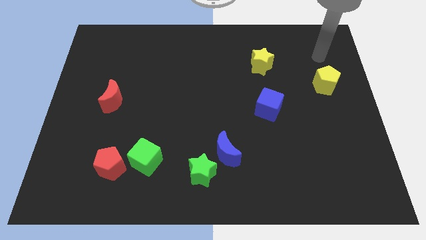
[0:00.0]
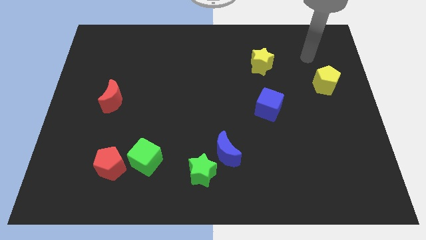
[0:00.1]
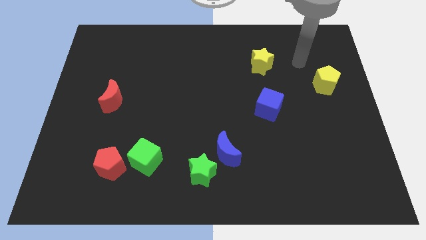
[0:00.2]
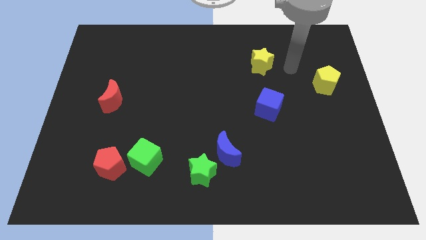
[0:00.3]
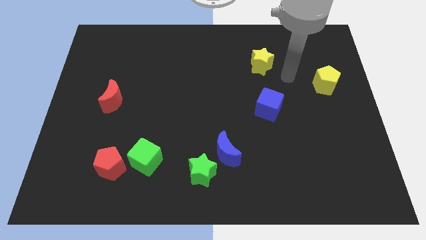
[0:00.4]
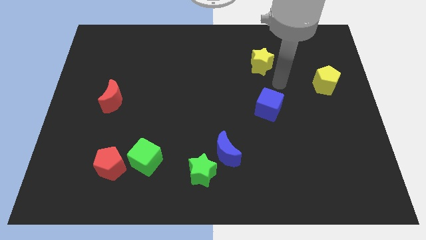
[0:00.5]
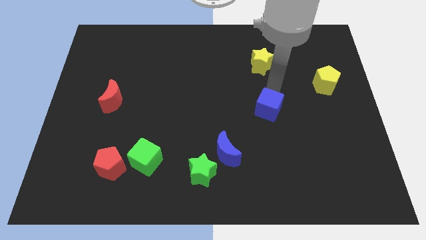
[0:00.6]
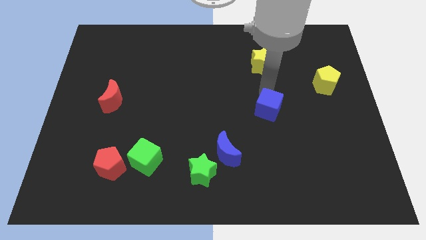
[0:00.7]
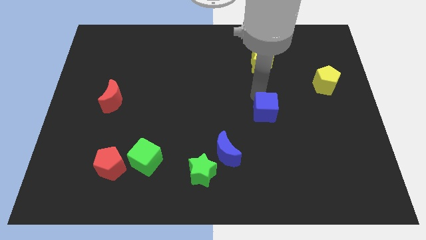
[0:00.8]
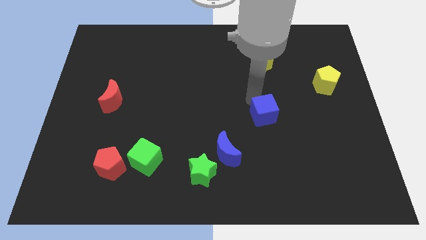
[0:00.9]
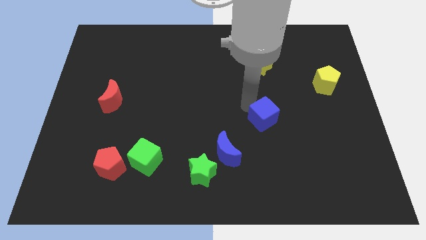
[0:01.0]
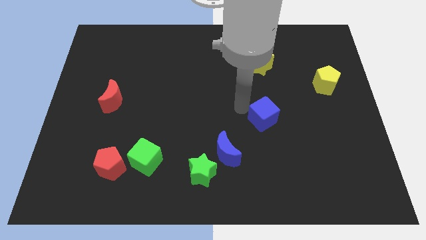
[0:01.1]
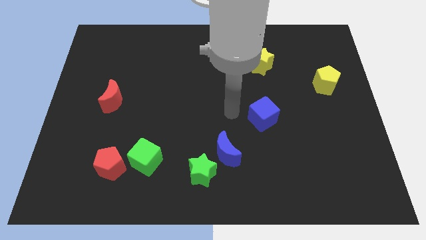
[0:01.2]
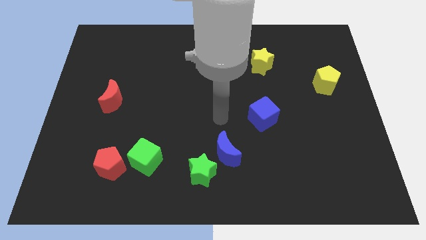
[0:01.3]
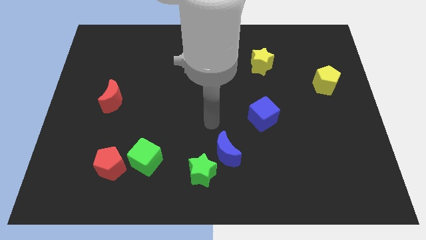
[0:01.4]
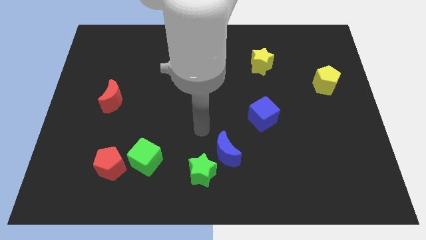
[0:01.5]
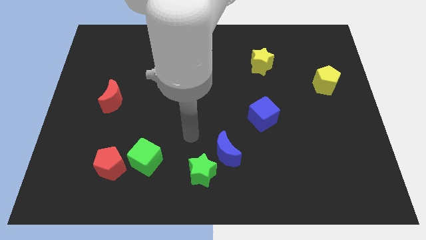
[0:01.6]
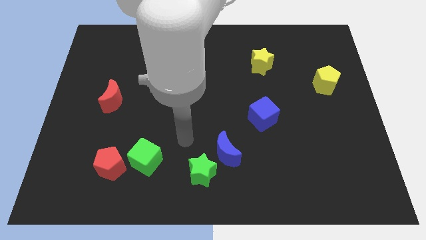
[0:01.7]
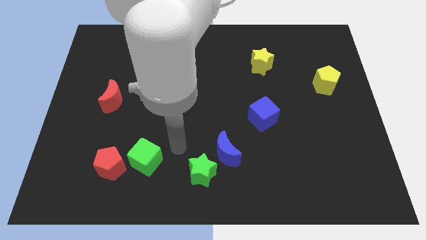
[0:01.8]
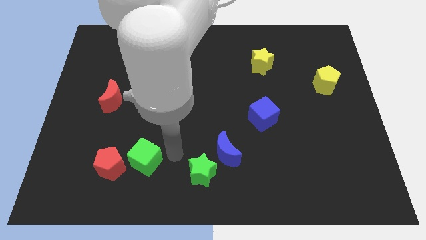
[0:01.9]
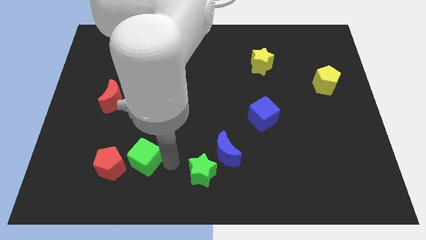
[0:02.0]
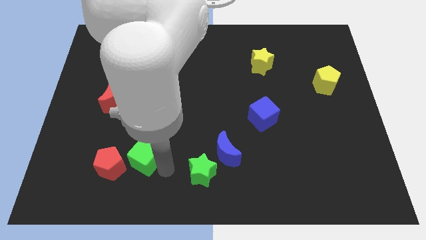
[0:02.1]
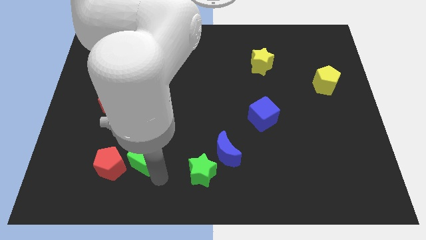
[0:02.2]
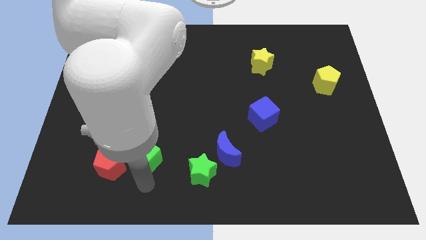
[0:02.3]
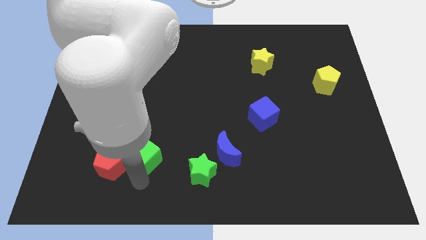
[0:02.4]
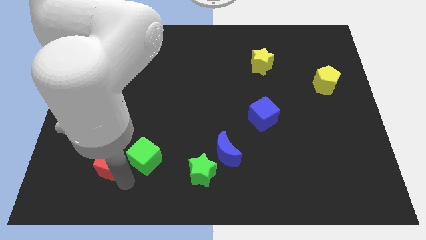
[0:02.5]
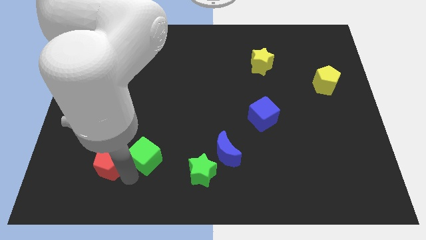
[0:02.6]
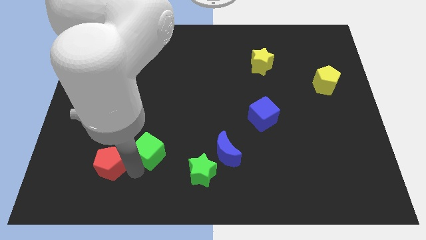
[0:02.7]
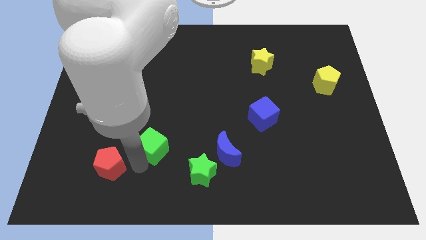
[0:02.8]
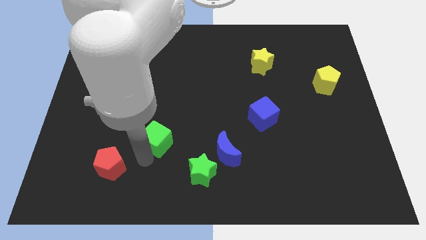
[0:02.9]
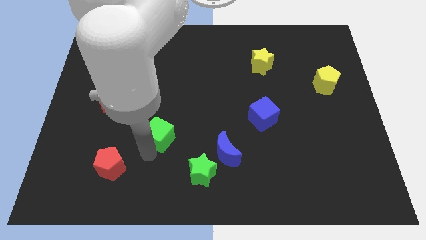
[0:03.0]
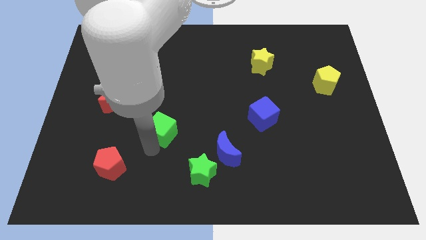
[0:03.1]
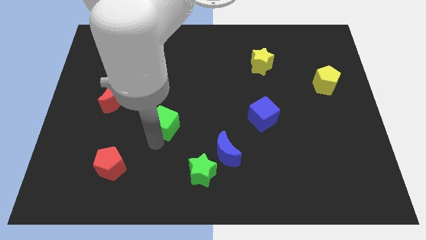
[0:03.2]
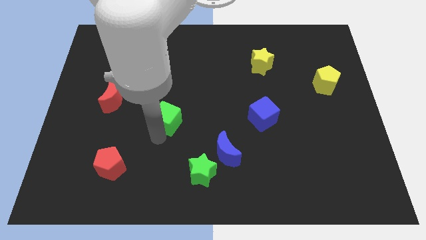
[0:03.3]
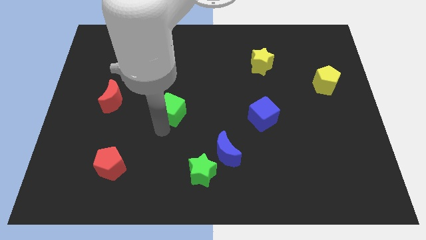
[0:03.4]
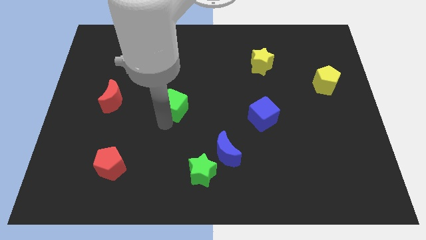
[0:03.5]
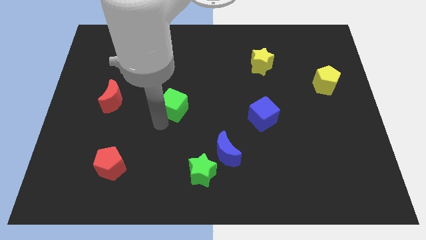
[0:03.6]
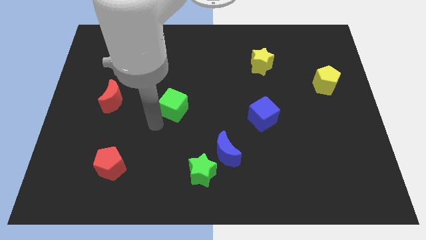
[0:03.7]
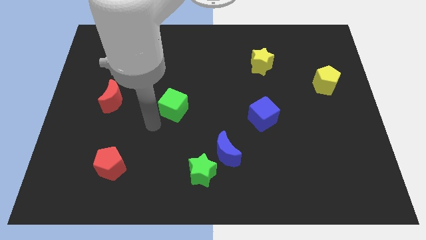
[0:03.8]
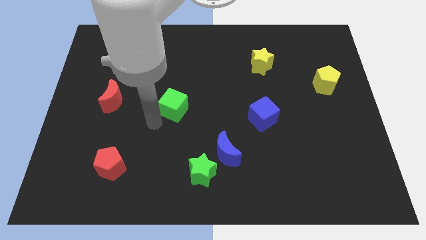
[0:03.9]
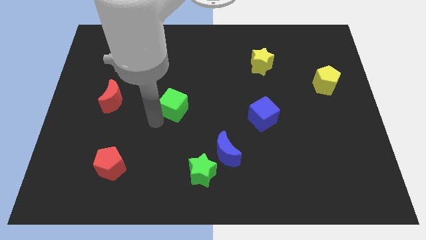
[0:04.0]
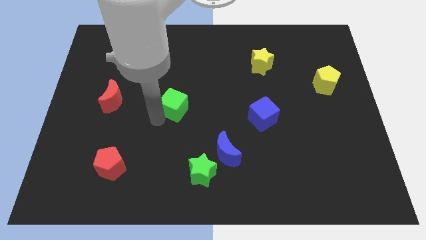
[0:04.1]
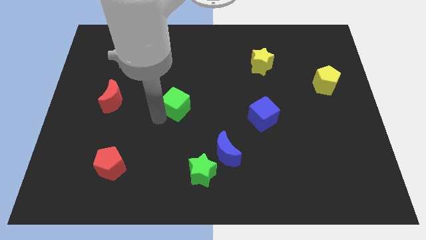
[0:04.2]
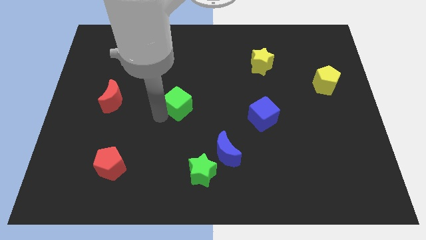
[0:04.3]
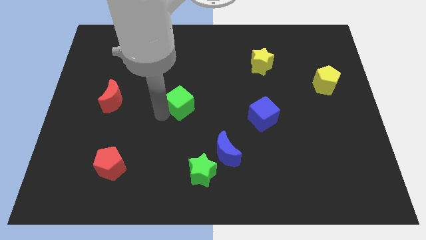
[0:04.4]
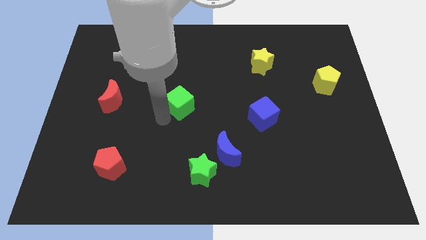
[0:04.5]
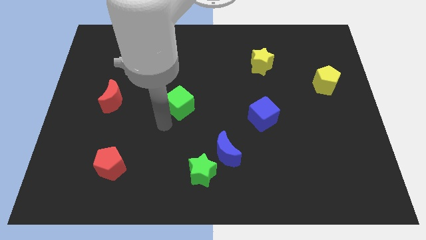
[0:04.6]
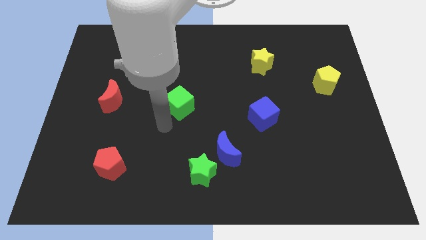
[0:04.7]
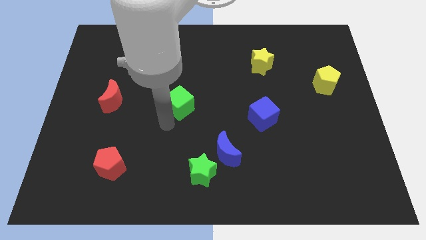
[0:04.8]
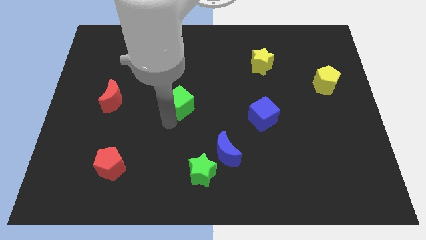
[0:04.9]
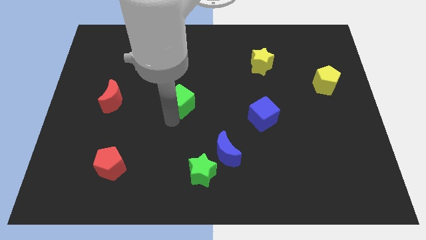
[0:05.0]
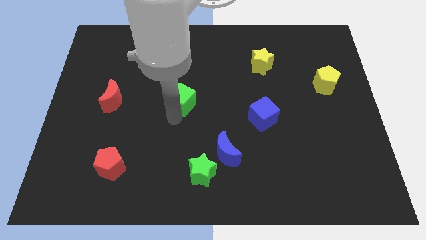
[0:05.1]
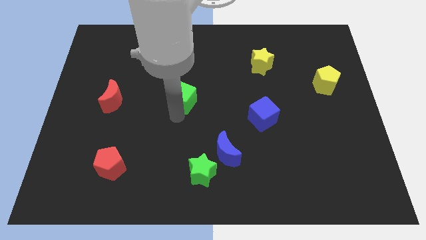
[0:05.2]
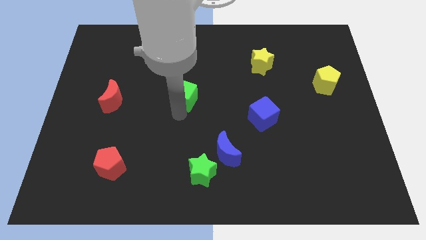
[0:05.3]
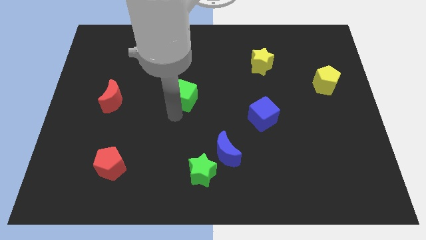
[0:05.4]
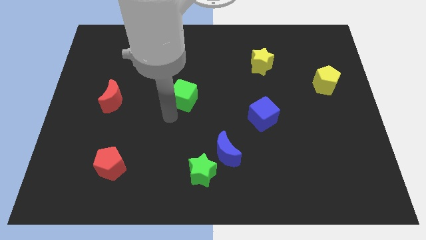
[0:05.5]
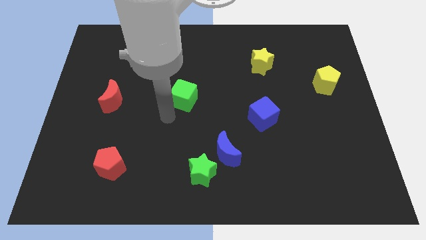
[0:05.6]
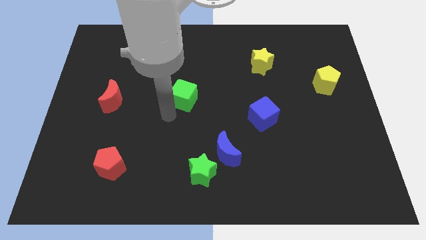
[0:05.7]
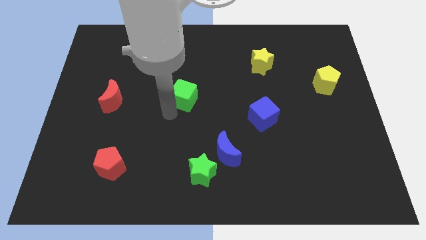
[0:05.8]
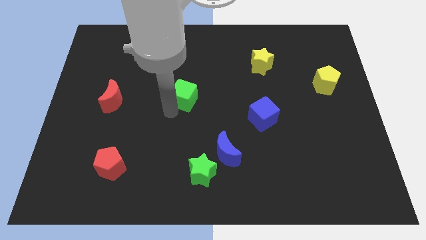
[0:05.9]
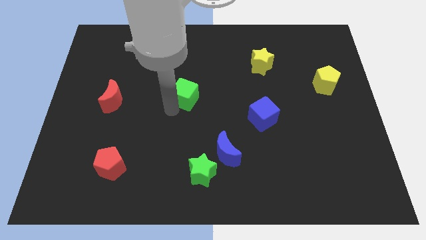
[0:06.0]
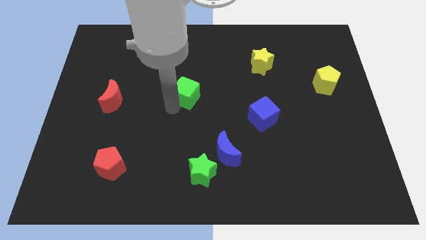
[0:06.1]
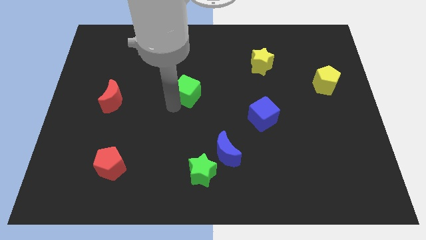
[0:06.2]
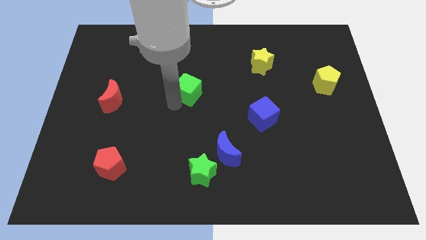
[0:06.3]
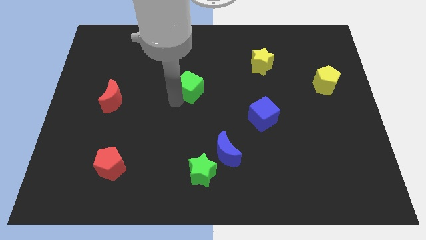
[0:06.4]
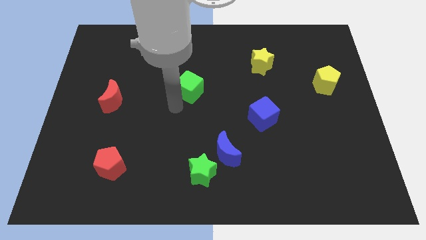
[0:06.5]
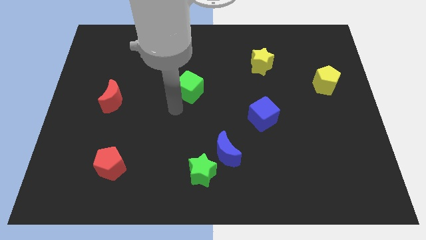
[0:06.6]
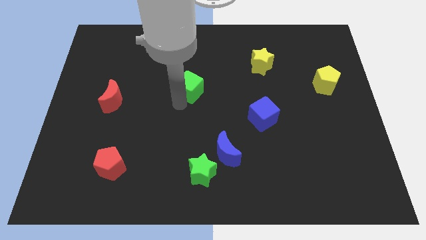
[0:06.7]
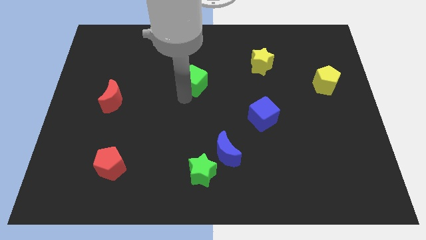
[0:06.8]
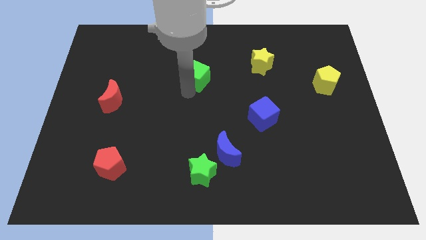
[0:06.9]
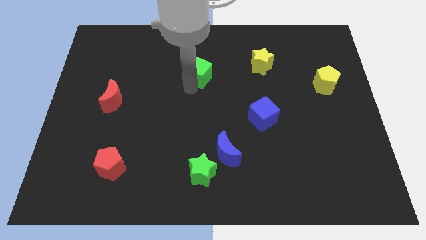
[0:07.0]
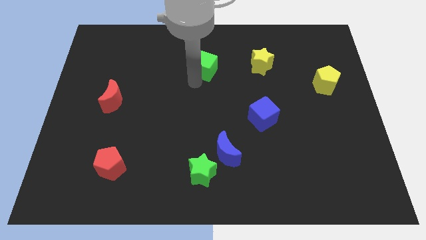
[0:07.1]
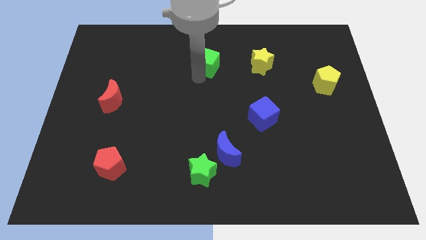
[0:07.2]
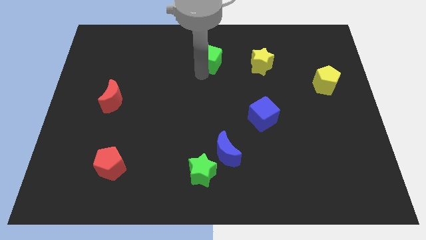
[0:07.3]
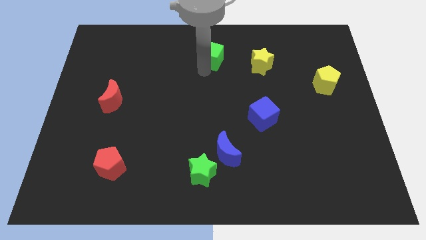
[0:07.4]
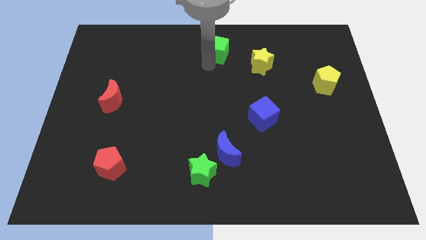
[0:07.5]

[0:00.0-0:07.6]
slide the green cube to the top
